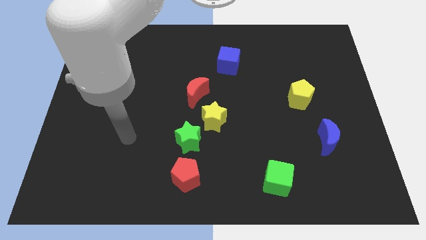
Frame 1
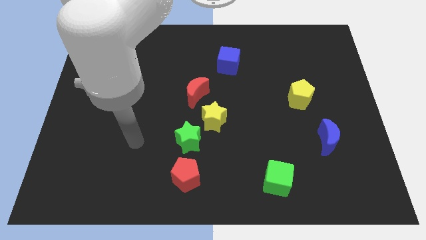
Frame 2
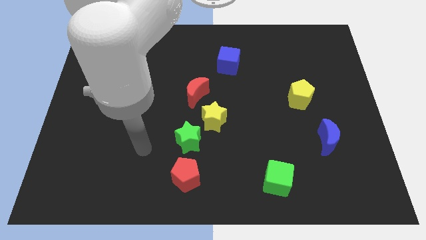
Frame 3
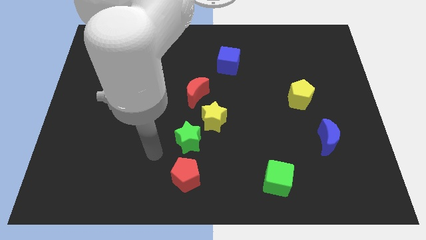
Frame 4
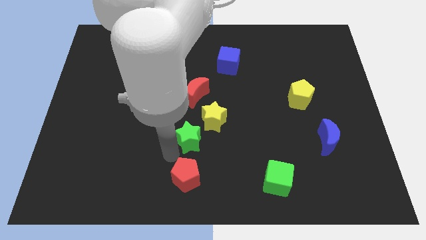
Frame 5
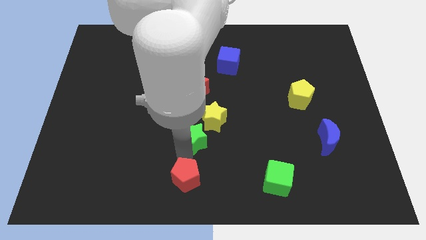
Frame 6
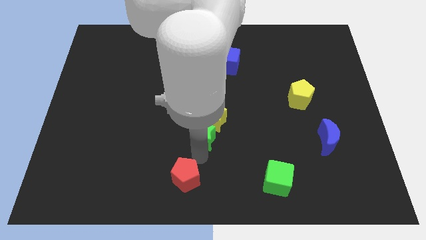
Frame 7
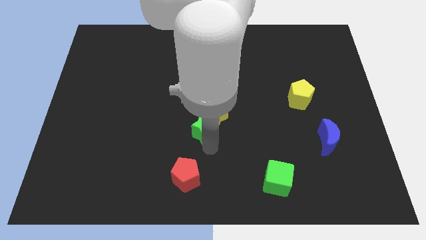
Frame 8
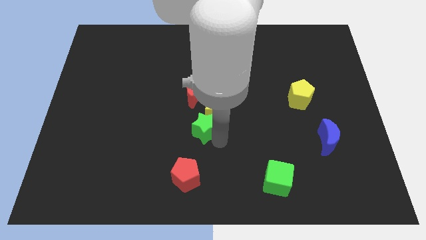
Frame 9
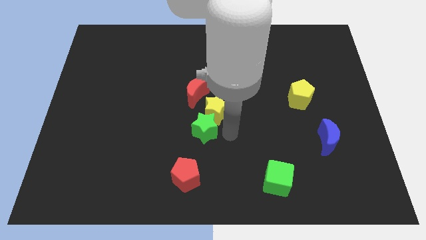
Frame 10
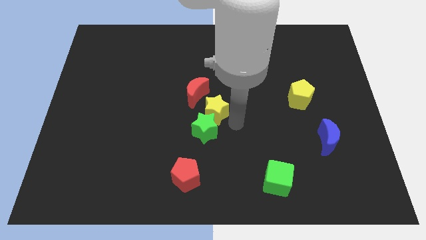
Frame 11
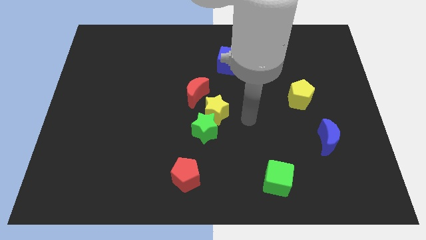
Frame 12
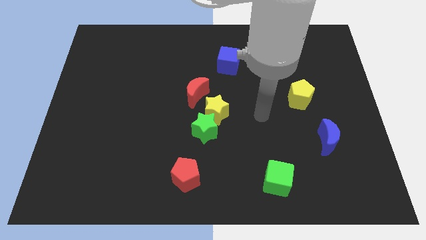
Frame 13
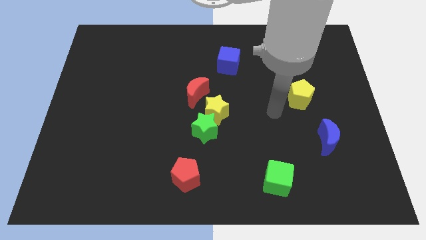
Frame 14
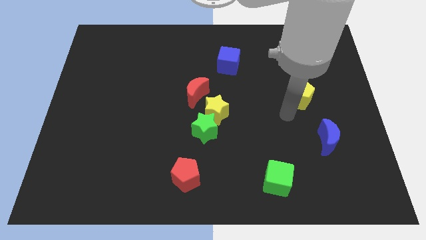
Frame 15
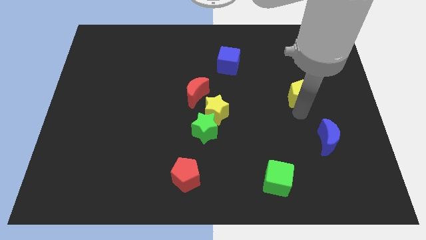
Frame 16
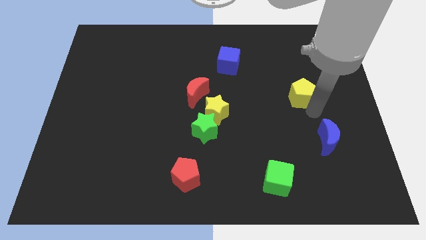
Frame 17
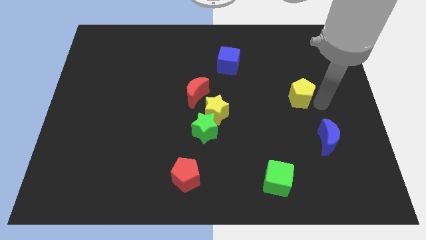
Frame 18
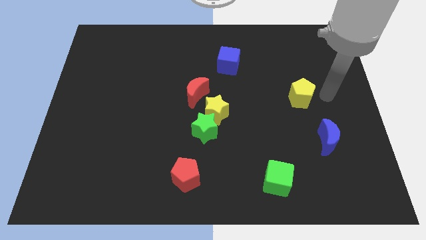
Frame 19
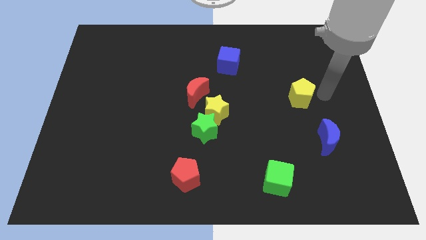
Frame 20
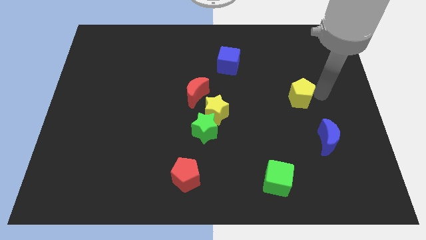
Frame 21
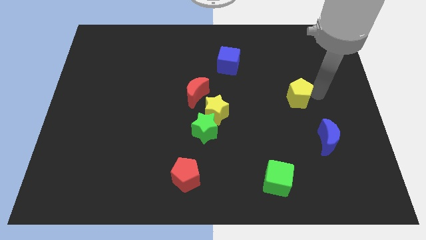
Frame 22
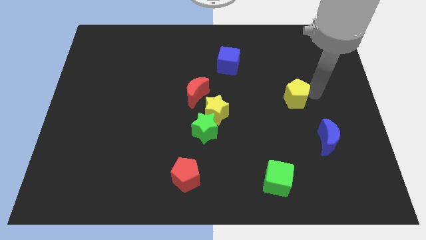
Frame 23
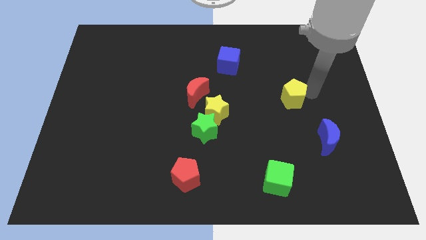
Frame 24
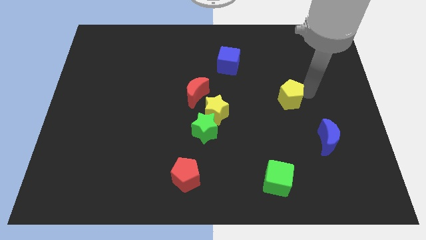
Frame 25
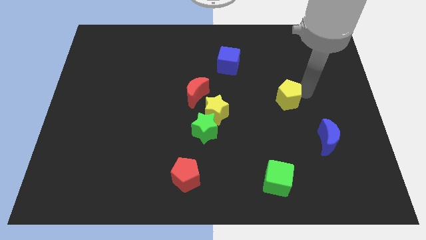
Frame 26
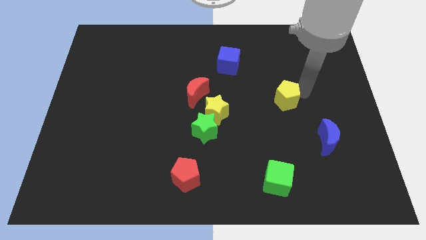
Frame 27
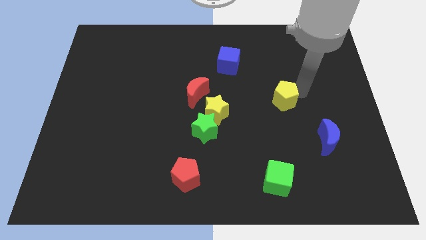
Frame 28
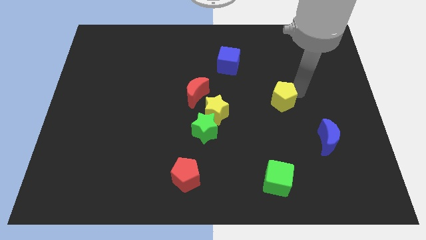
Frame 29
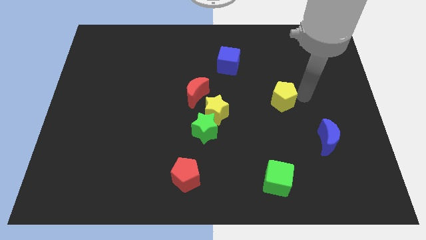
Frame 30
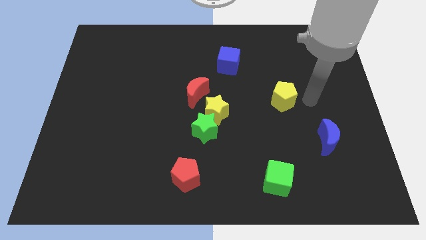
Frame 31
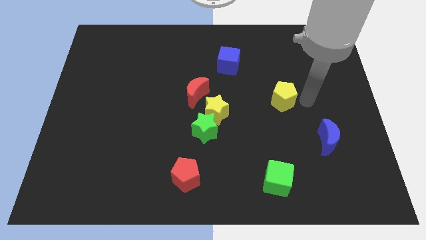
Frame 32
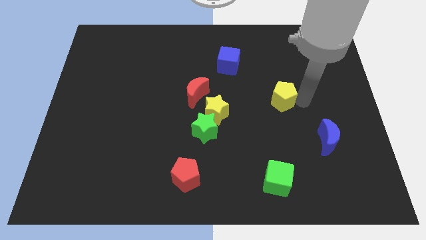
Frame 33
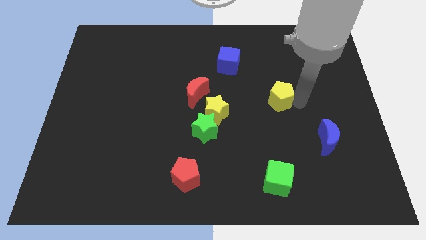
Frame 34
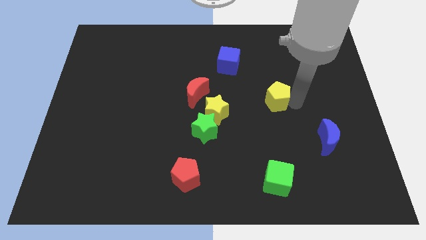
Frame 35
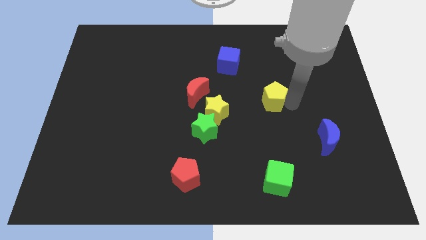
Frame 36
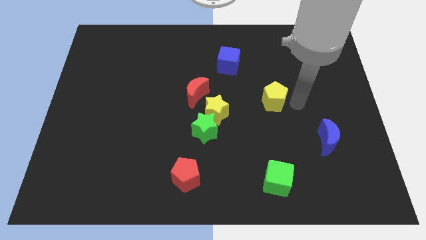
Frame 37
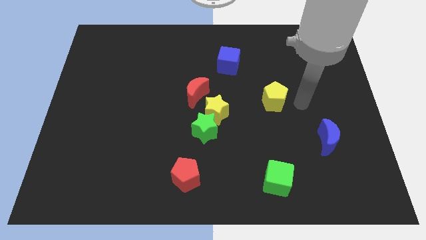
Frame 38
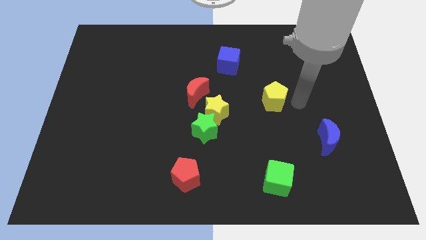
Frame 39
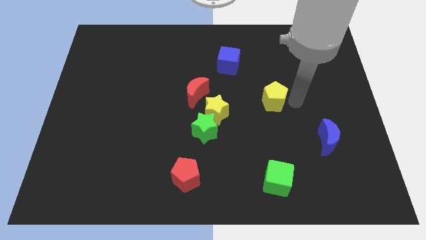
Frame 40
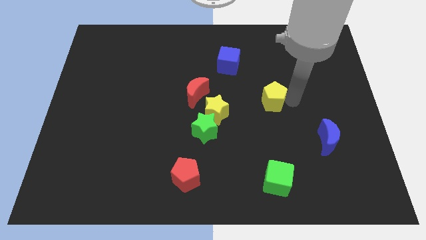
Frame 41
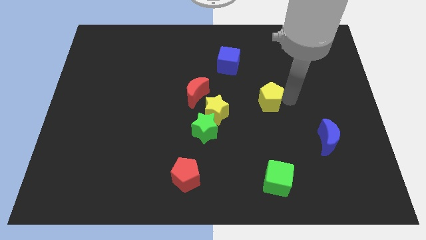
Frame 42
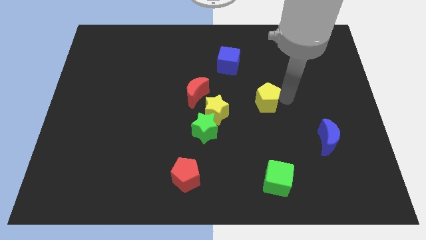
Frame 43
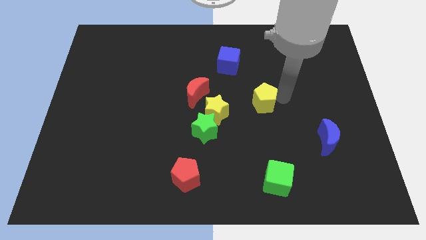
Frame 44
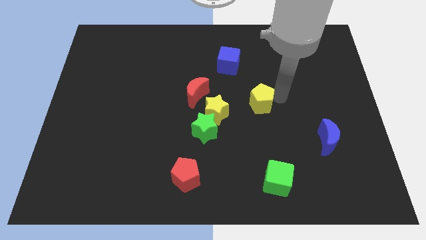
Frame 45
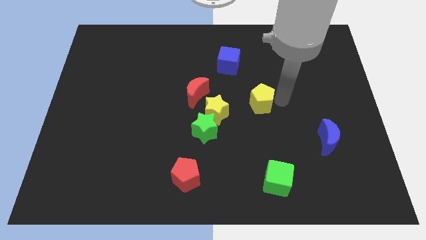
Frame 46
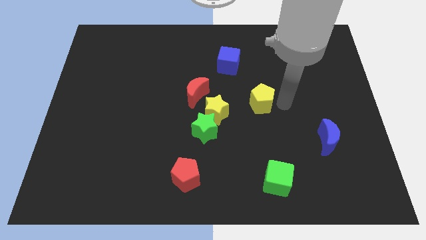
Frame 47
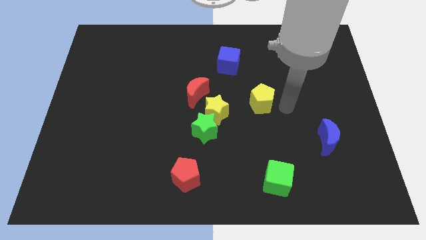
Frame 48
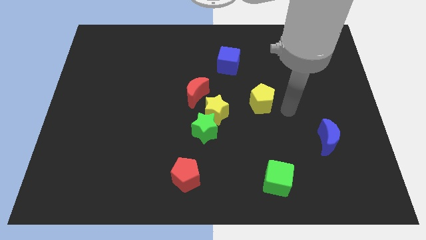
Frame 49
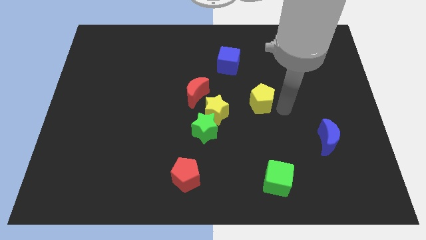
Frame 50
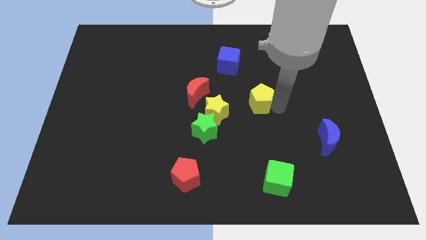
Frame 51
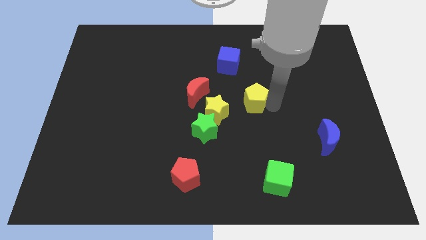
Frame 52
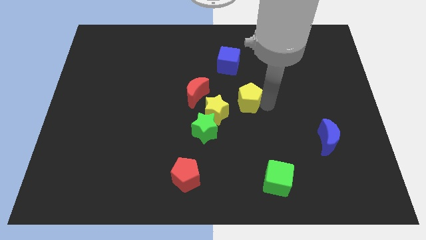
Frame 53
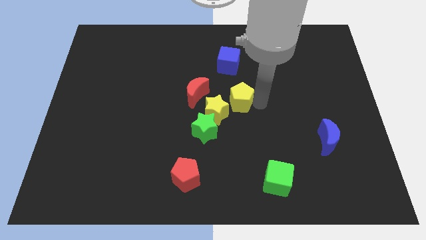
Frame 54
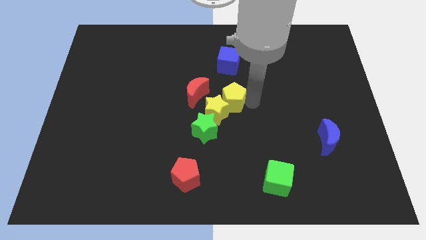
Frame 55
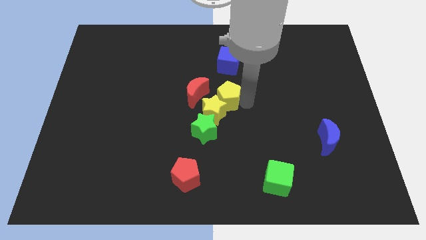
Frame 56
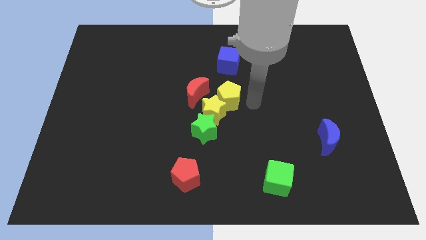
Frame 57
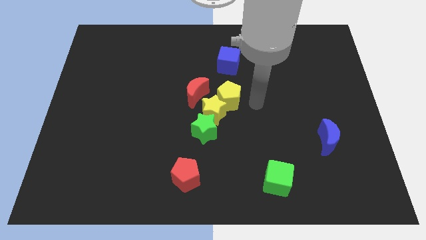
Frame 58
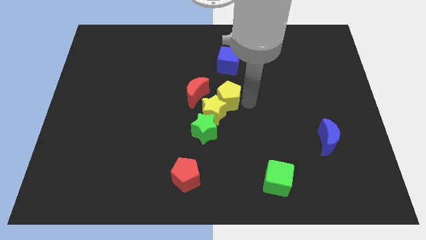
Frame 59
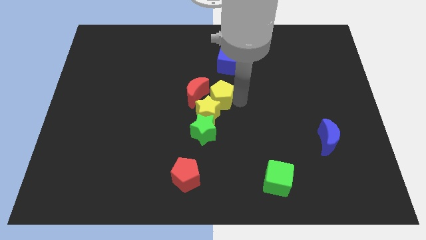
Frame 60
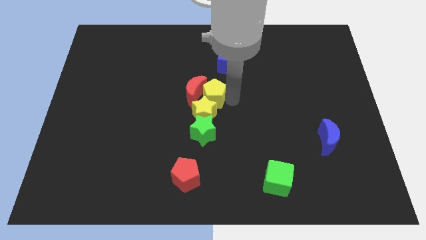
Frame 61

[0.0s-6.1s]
slide the yellow pentagon next to the red moon

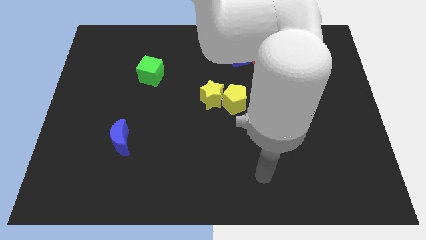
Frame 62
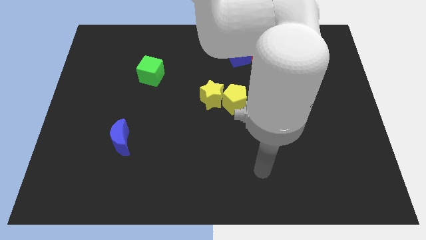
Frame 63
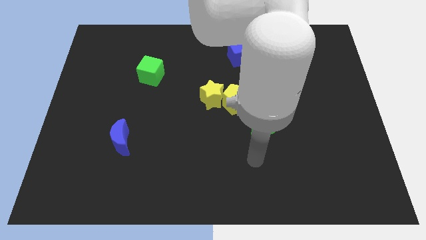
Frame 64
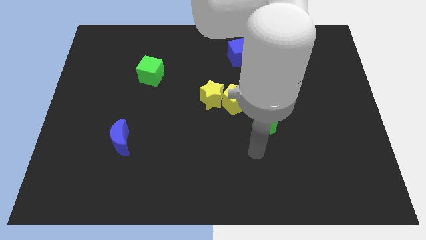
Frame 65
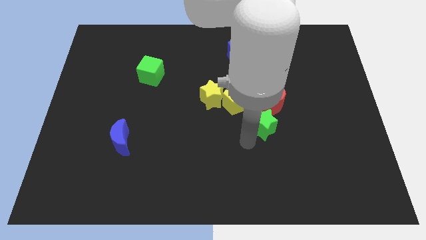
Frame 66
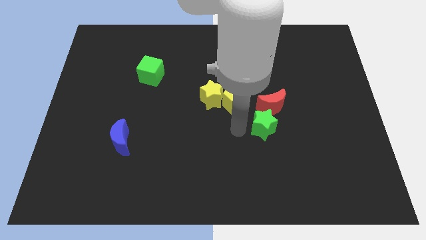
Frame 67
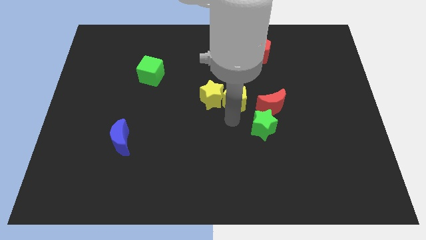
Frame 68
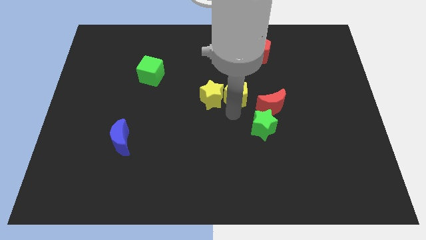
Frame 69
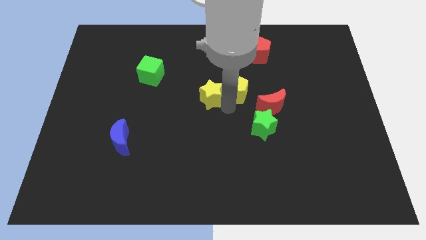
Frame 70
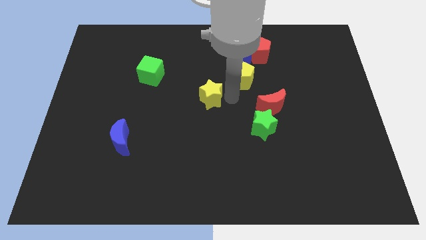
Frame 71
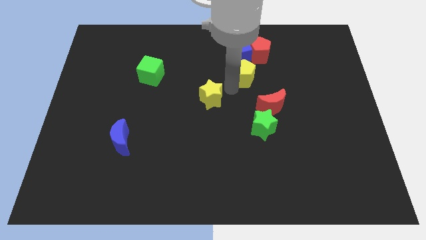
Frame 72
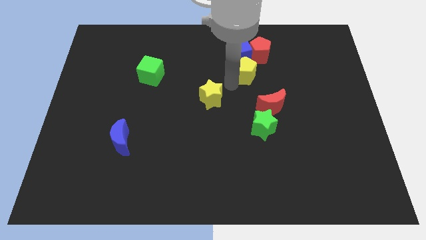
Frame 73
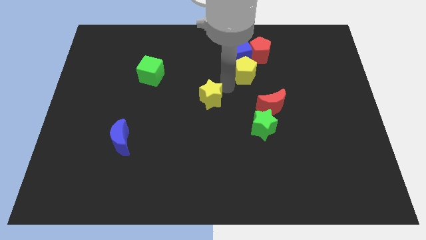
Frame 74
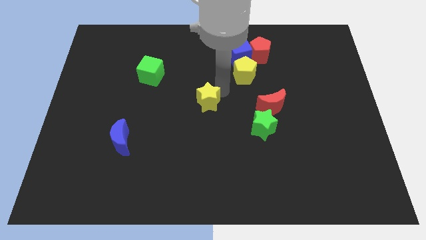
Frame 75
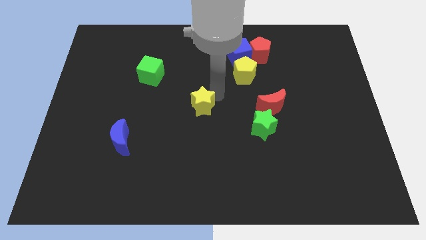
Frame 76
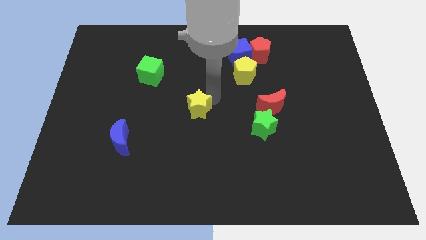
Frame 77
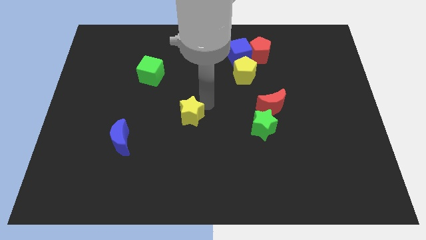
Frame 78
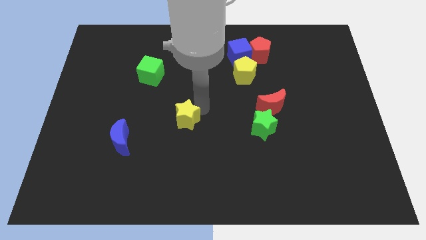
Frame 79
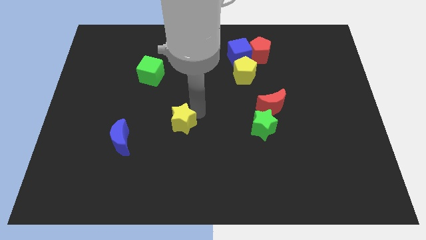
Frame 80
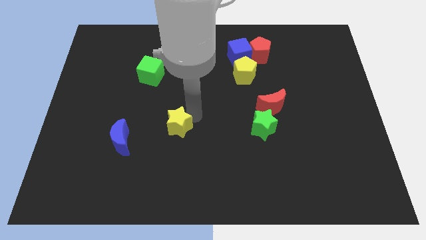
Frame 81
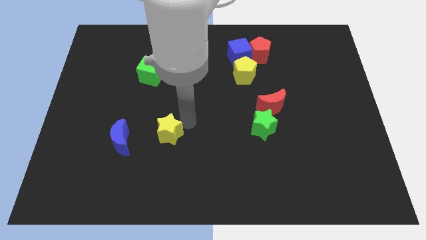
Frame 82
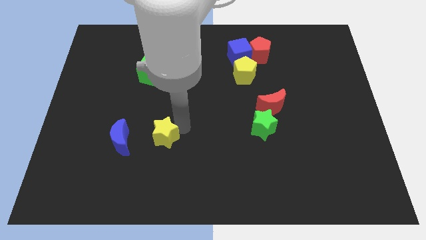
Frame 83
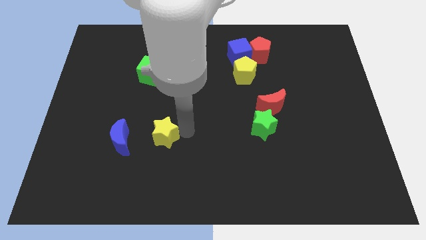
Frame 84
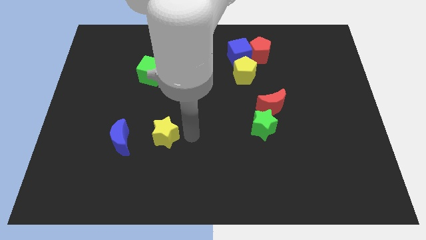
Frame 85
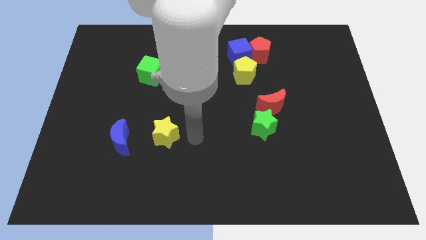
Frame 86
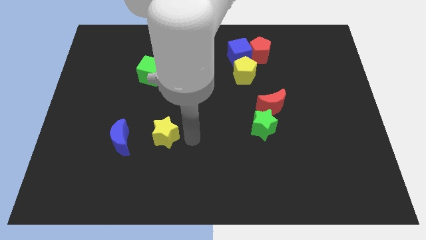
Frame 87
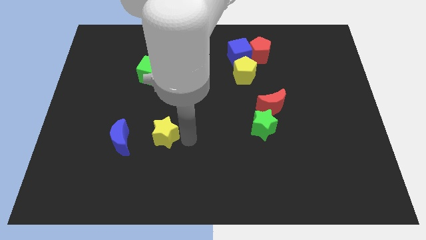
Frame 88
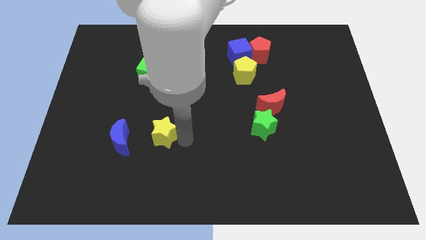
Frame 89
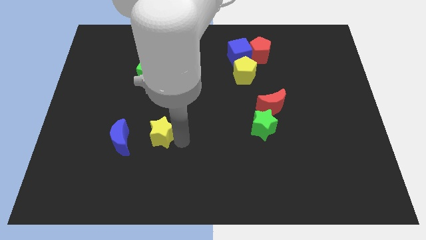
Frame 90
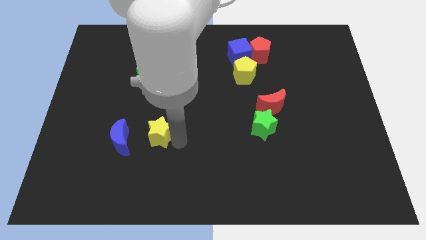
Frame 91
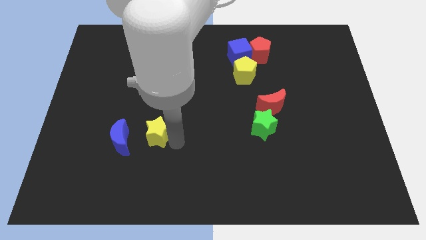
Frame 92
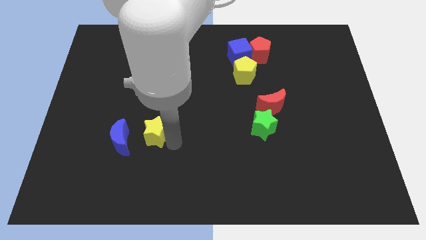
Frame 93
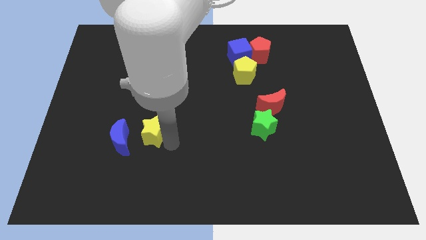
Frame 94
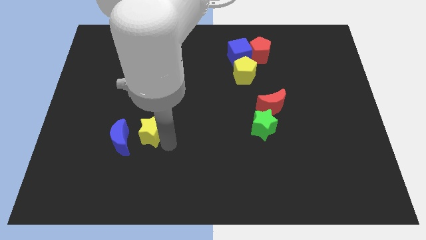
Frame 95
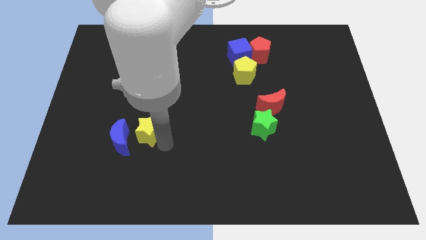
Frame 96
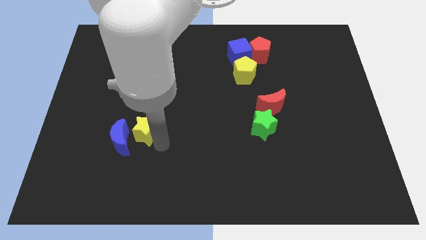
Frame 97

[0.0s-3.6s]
push the yellow star next to the blue moon
